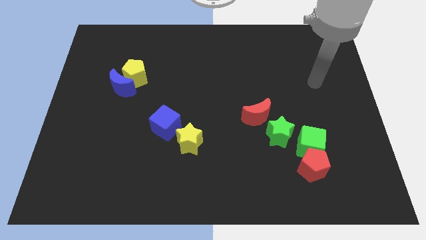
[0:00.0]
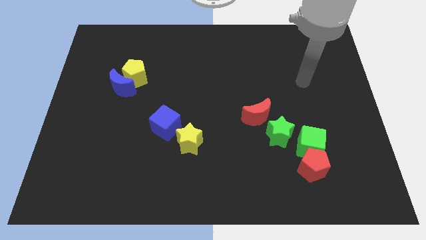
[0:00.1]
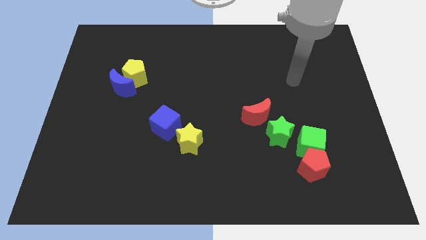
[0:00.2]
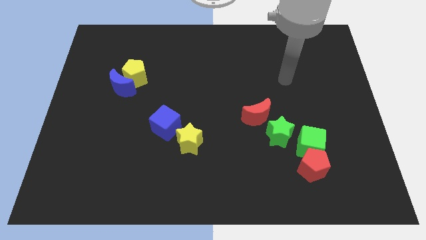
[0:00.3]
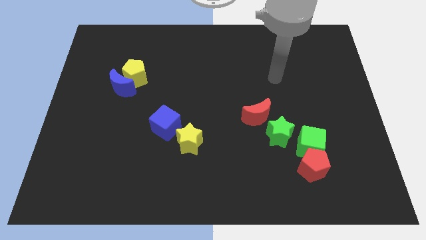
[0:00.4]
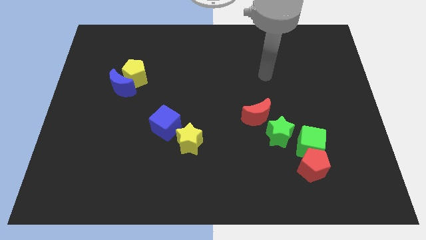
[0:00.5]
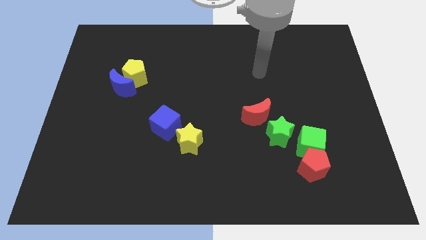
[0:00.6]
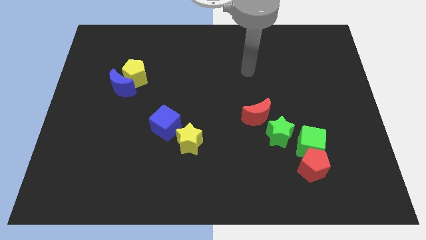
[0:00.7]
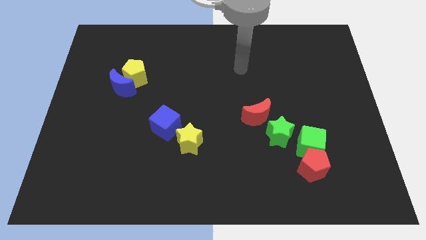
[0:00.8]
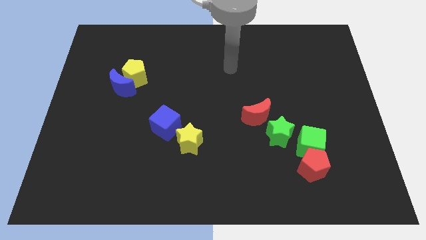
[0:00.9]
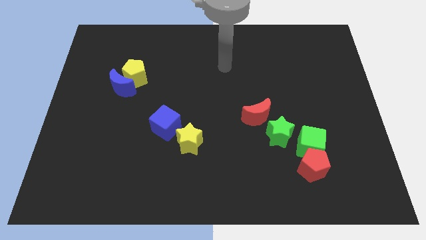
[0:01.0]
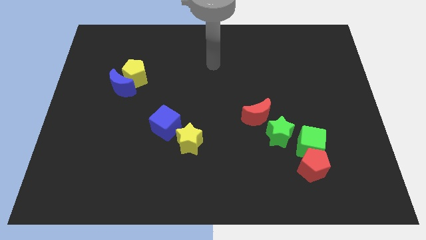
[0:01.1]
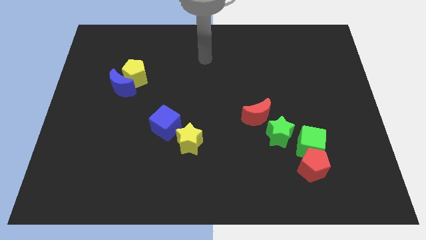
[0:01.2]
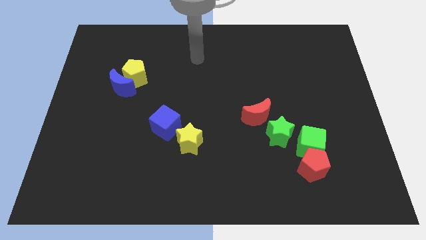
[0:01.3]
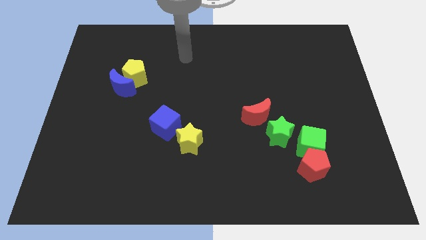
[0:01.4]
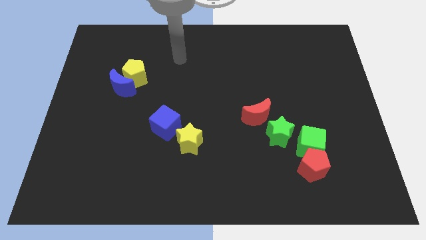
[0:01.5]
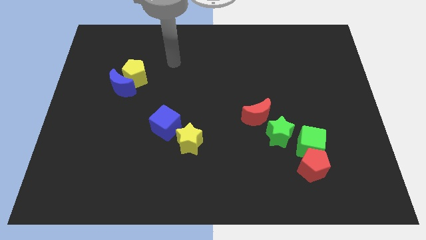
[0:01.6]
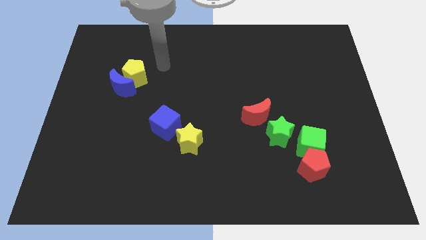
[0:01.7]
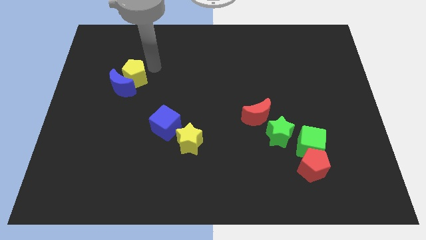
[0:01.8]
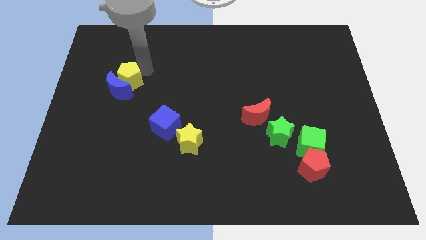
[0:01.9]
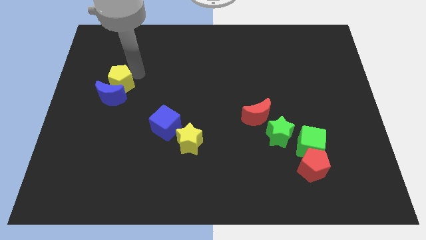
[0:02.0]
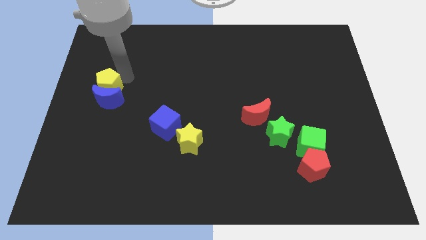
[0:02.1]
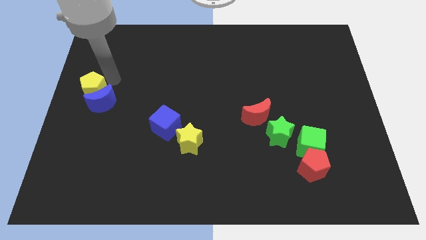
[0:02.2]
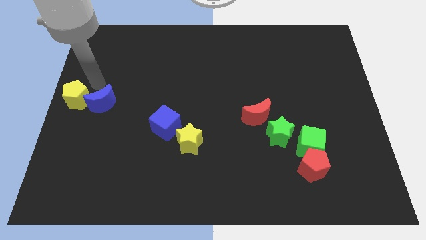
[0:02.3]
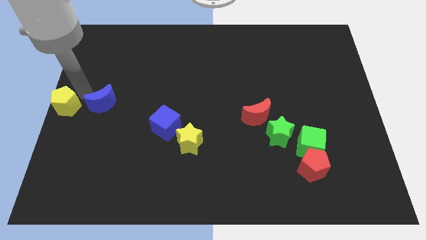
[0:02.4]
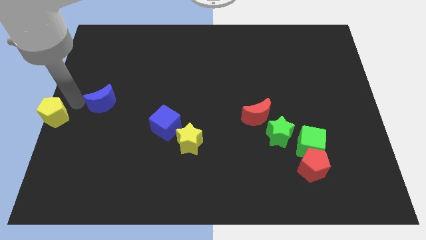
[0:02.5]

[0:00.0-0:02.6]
move the blue moon away from the yellow pentagon

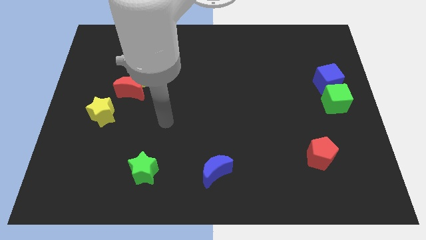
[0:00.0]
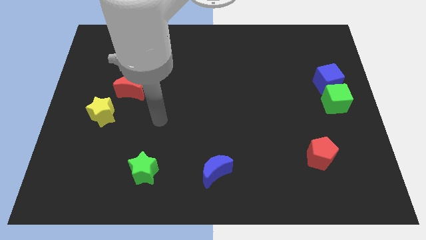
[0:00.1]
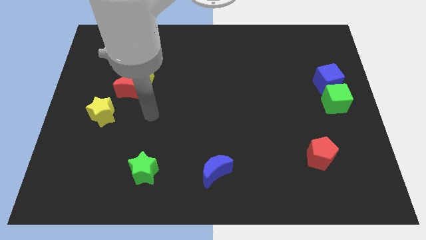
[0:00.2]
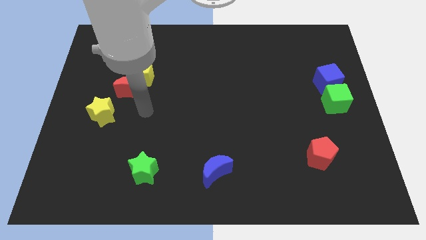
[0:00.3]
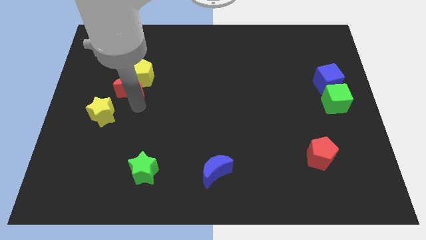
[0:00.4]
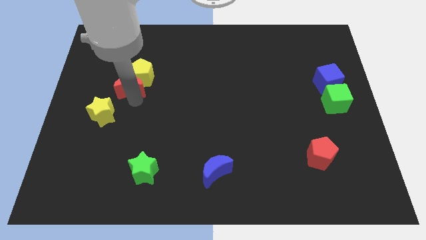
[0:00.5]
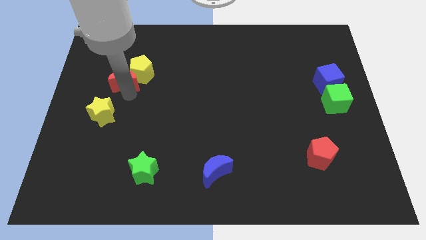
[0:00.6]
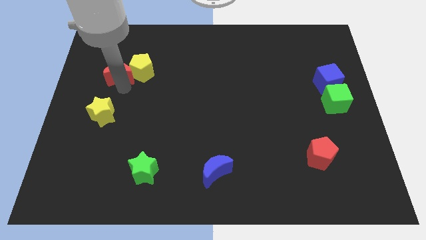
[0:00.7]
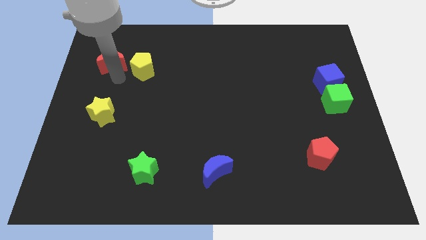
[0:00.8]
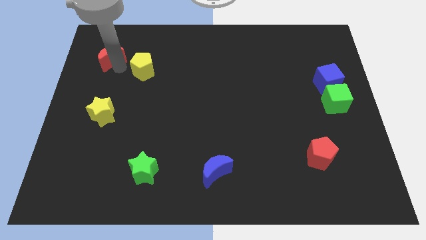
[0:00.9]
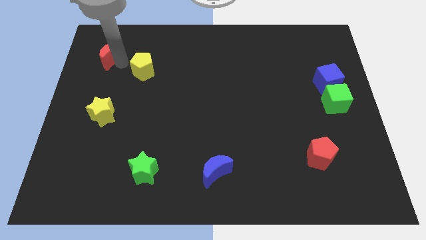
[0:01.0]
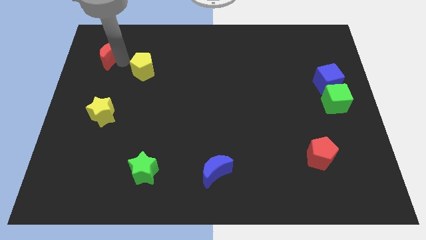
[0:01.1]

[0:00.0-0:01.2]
separate the yellow pentagon from the red moon

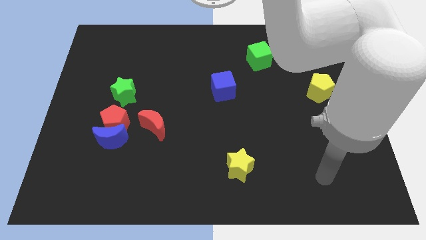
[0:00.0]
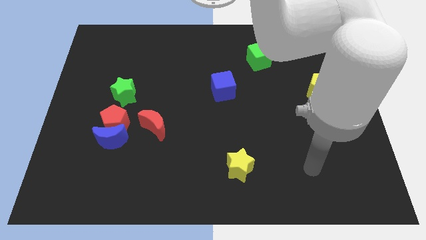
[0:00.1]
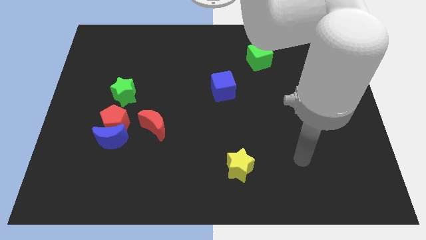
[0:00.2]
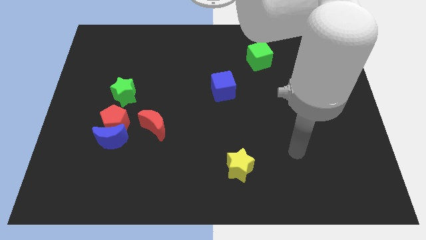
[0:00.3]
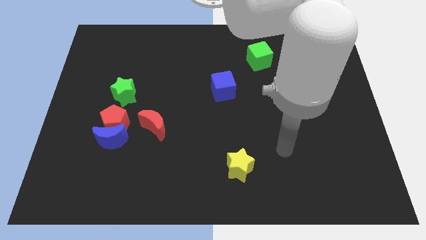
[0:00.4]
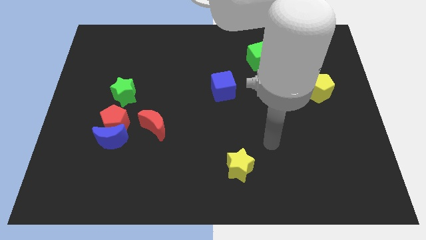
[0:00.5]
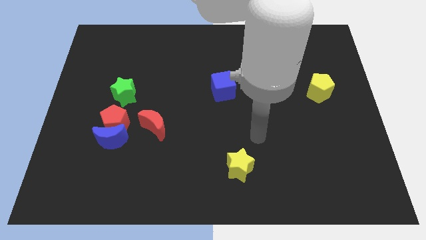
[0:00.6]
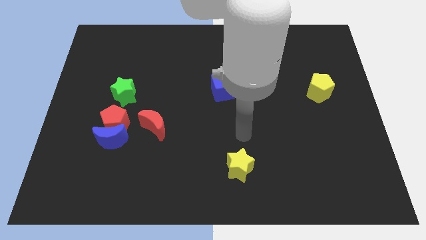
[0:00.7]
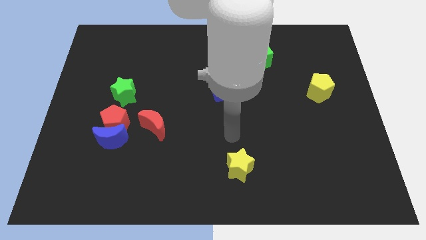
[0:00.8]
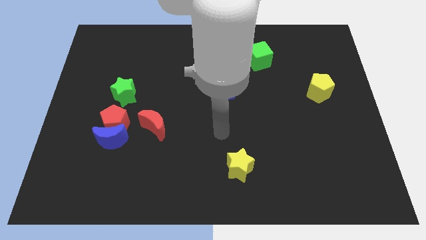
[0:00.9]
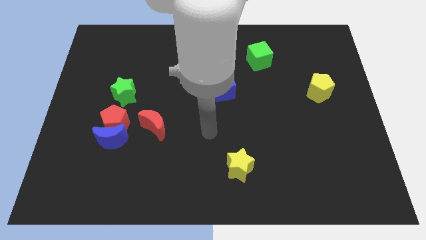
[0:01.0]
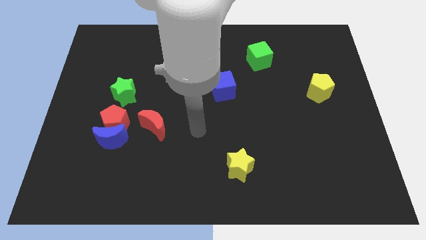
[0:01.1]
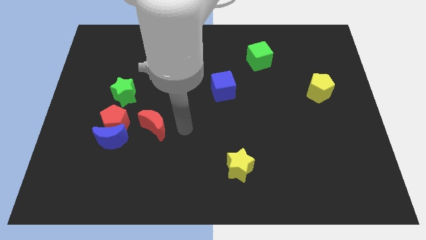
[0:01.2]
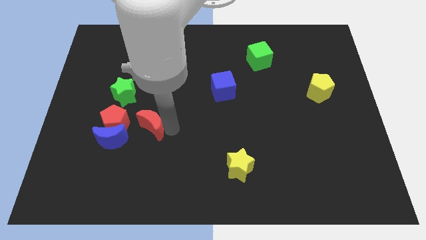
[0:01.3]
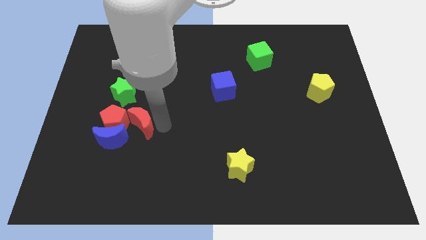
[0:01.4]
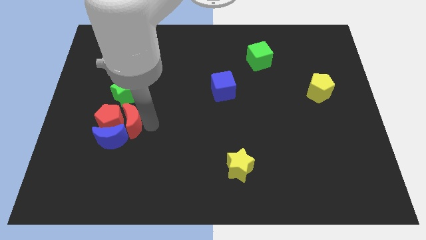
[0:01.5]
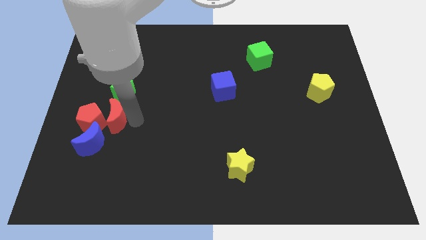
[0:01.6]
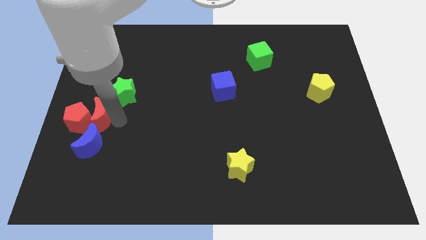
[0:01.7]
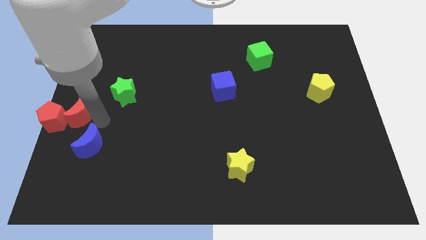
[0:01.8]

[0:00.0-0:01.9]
separate the blue moon from the red pentagon and red moon

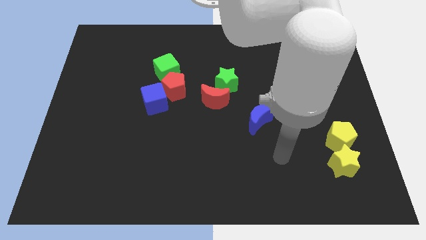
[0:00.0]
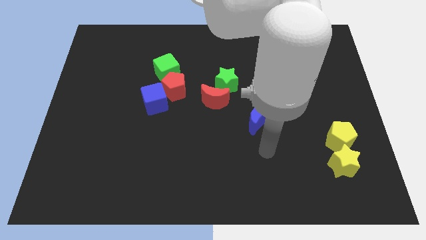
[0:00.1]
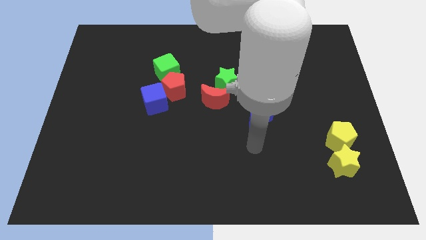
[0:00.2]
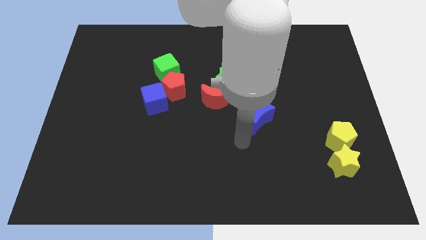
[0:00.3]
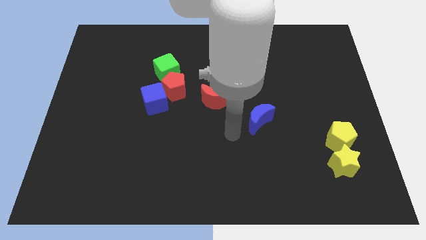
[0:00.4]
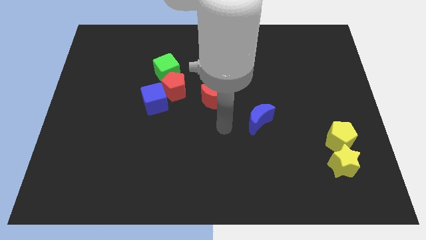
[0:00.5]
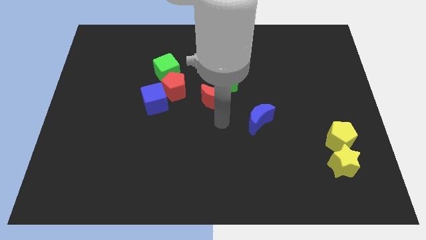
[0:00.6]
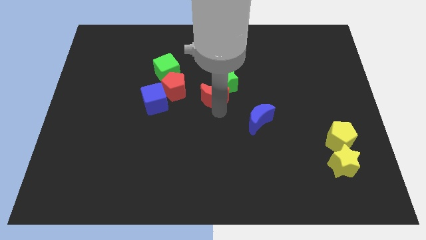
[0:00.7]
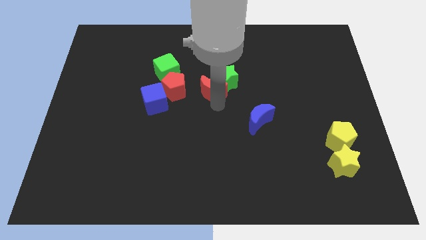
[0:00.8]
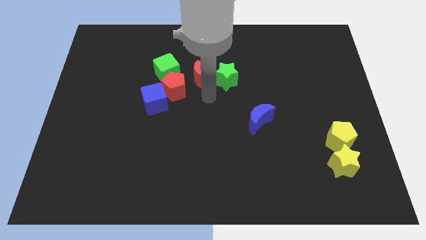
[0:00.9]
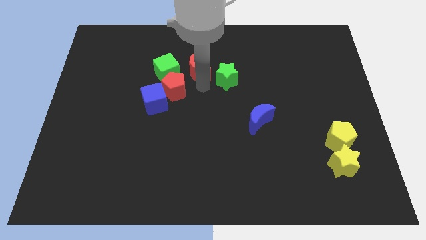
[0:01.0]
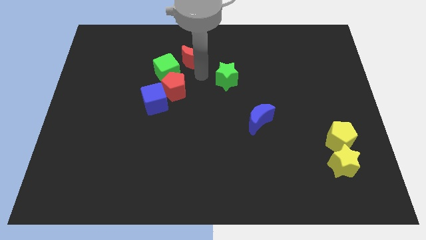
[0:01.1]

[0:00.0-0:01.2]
move the green star away from the red moon

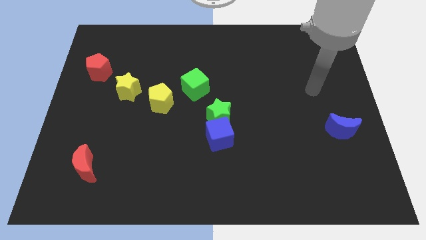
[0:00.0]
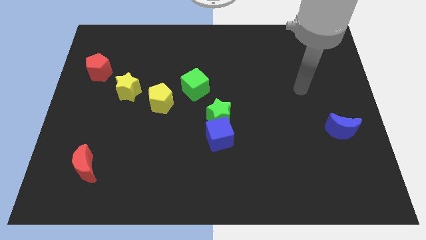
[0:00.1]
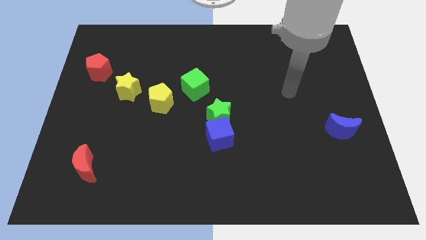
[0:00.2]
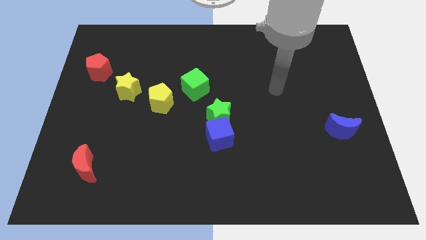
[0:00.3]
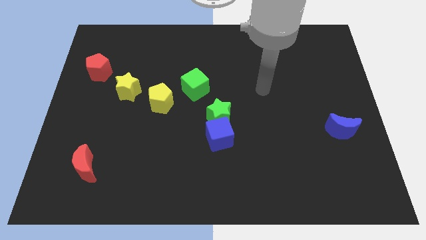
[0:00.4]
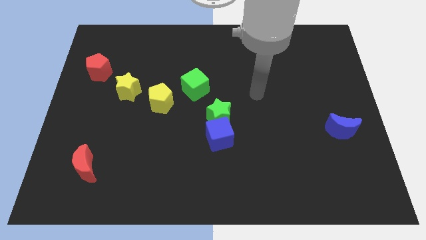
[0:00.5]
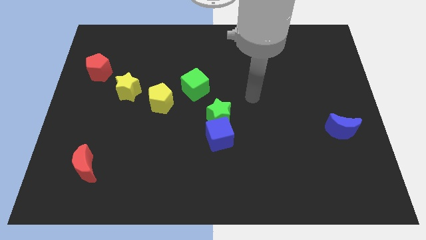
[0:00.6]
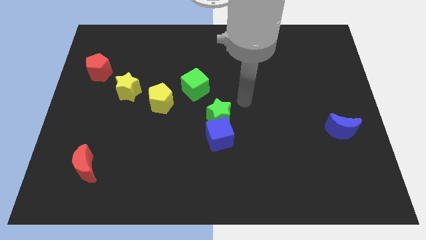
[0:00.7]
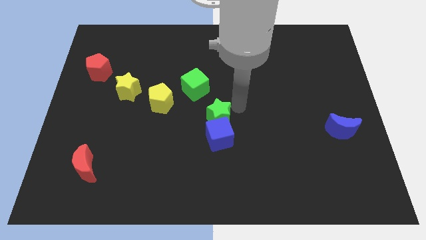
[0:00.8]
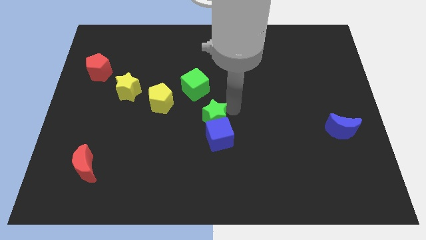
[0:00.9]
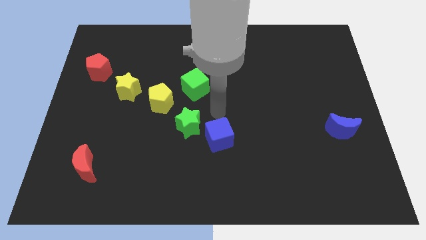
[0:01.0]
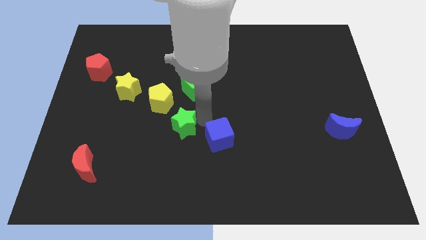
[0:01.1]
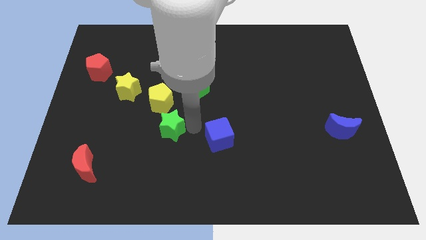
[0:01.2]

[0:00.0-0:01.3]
separate the blue cube from the green star

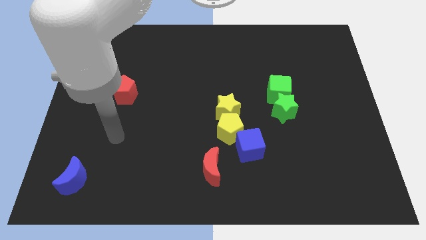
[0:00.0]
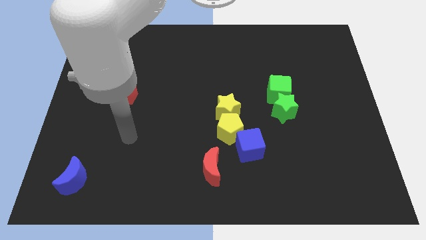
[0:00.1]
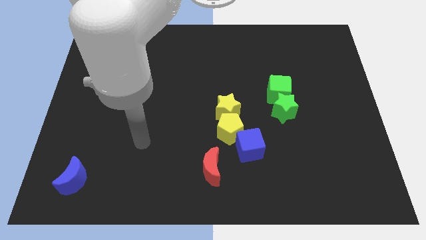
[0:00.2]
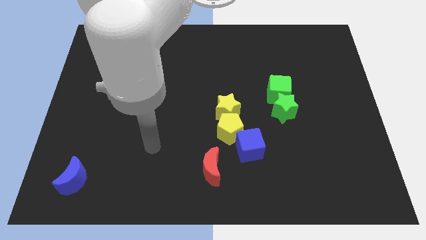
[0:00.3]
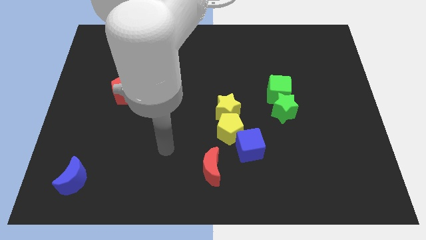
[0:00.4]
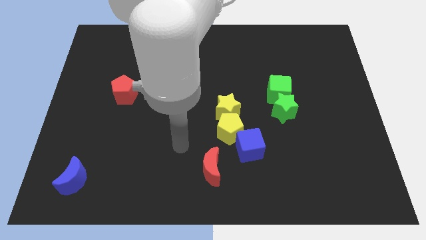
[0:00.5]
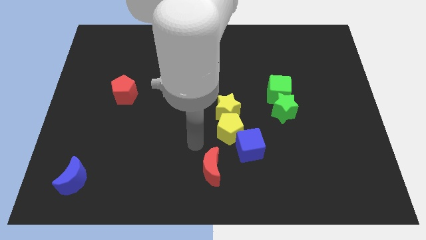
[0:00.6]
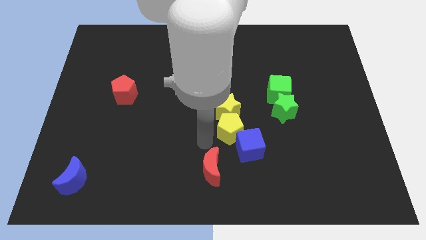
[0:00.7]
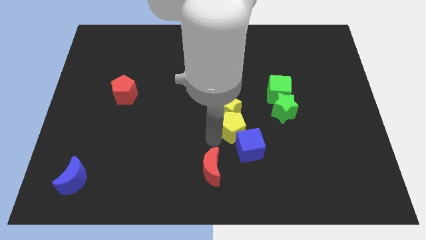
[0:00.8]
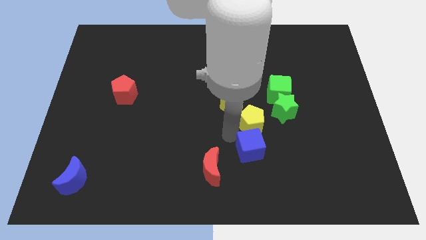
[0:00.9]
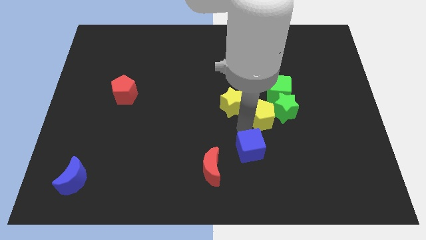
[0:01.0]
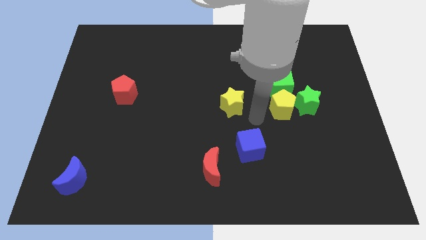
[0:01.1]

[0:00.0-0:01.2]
pull the yellow star apart from the yellow pentagon
